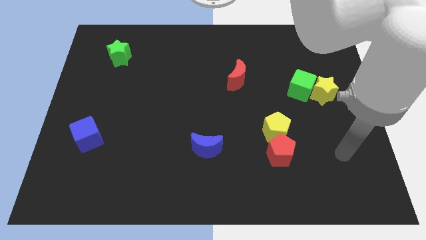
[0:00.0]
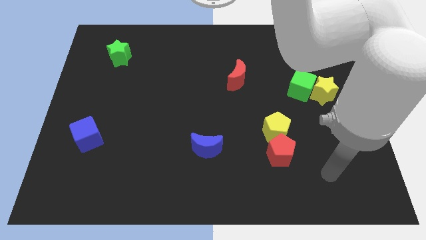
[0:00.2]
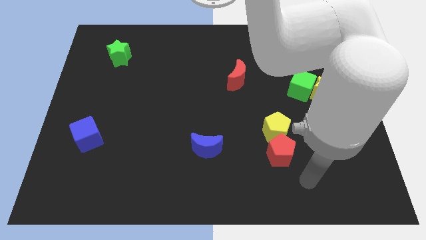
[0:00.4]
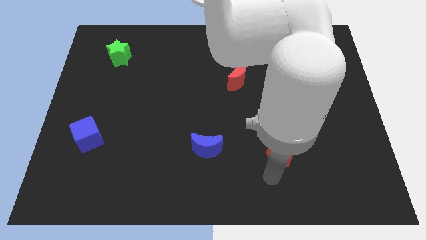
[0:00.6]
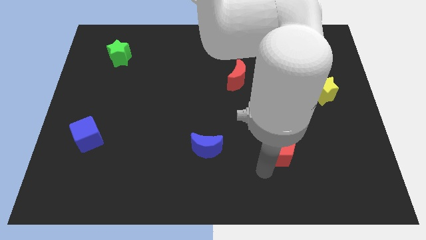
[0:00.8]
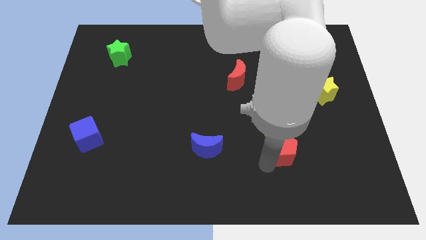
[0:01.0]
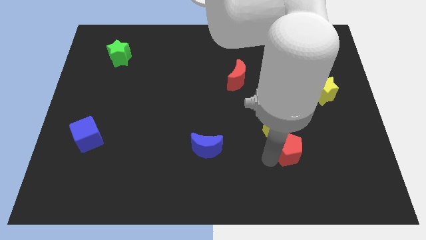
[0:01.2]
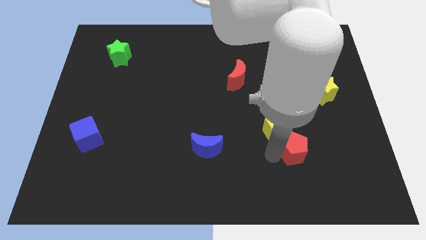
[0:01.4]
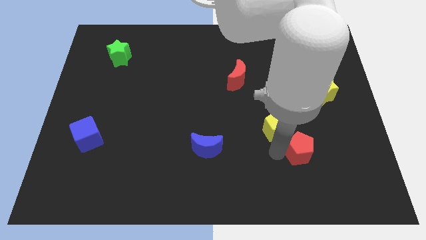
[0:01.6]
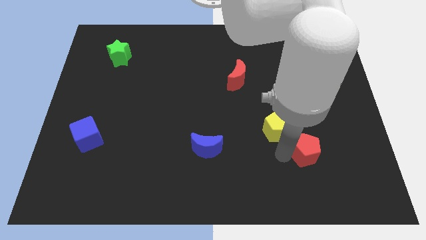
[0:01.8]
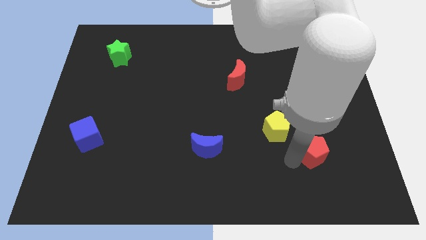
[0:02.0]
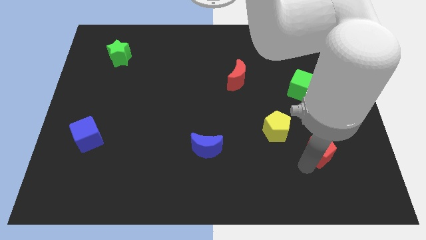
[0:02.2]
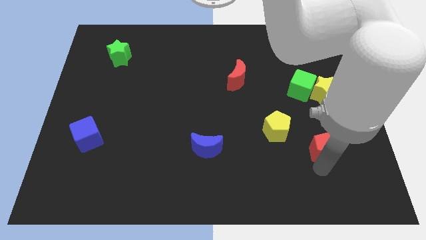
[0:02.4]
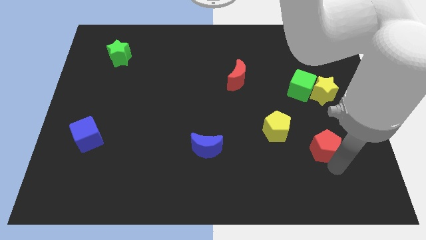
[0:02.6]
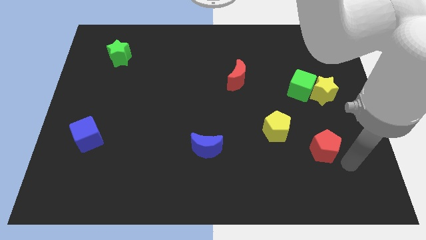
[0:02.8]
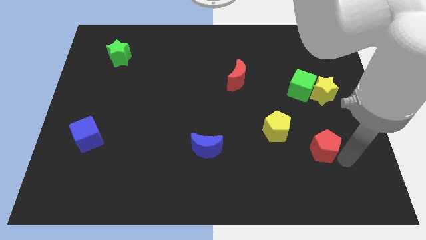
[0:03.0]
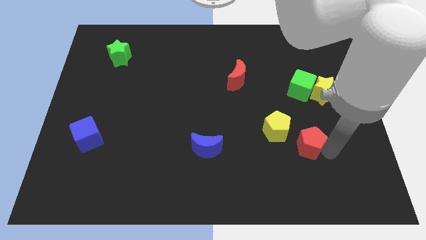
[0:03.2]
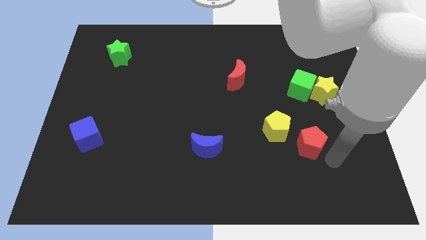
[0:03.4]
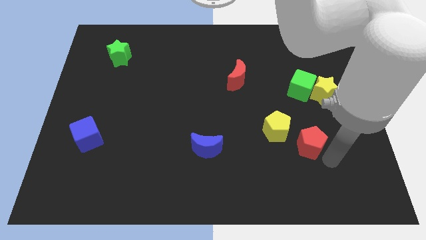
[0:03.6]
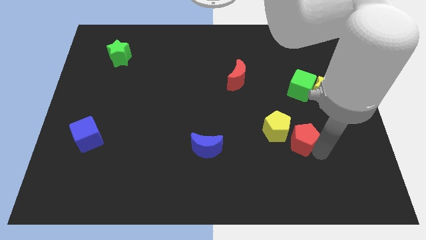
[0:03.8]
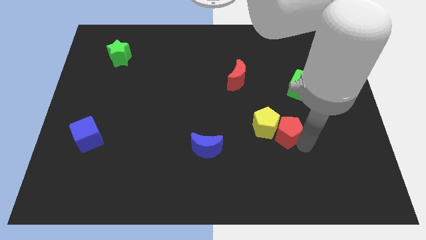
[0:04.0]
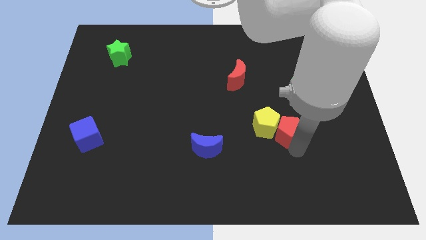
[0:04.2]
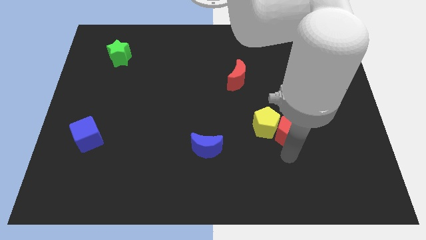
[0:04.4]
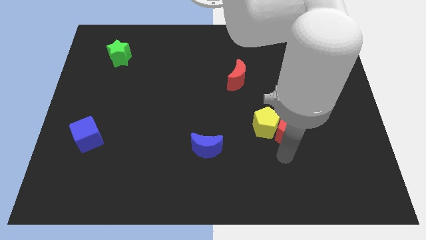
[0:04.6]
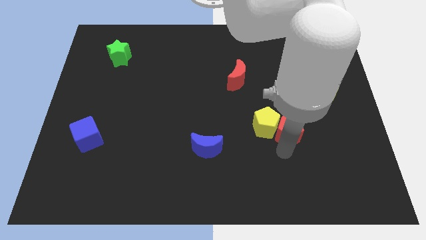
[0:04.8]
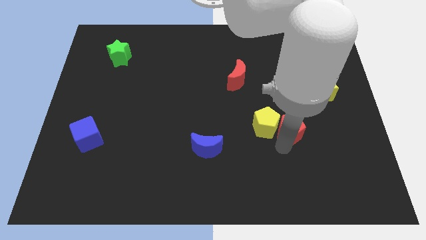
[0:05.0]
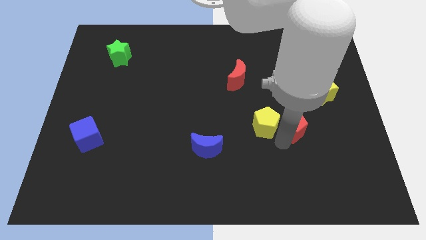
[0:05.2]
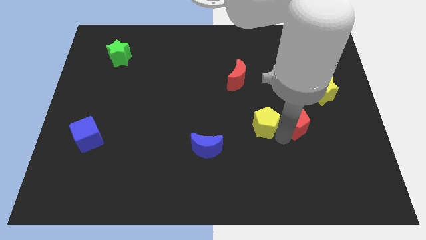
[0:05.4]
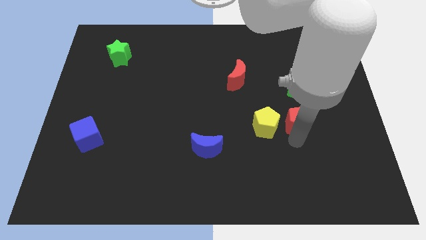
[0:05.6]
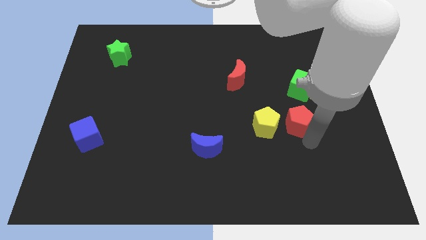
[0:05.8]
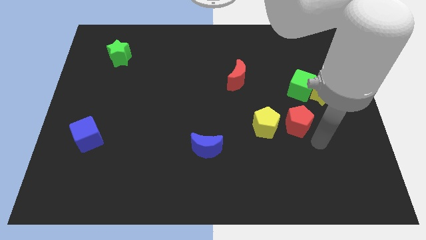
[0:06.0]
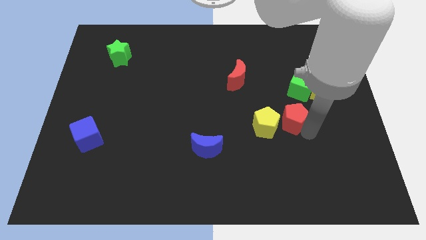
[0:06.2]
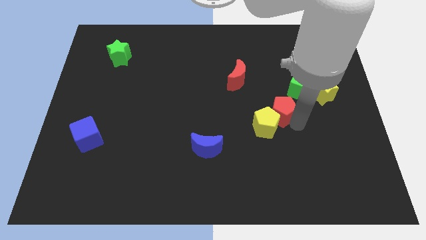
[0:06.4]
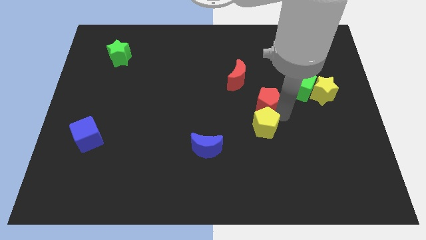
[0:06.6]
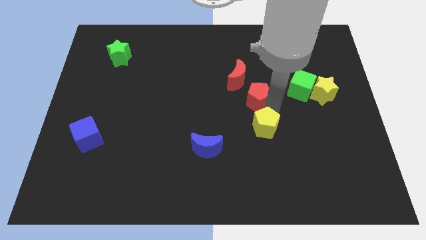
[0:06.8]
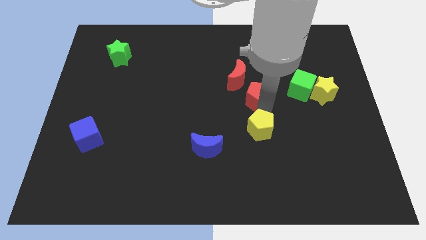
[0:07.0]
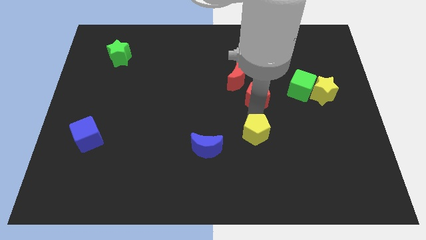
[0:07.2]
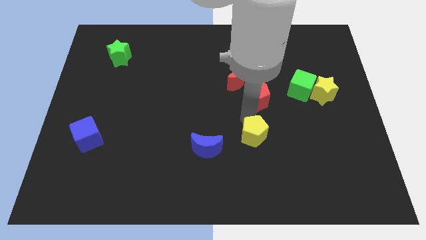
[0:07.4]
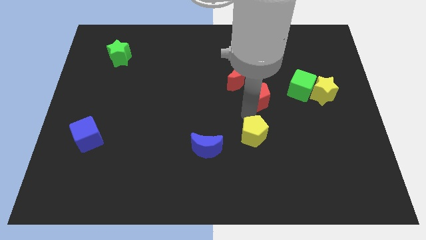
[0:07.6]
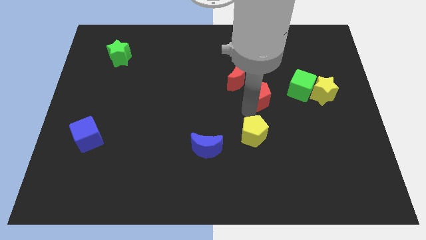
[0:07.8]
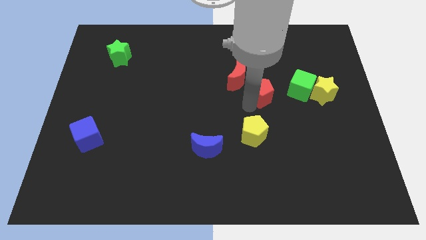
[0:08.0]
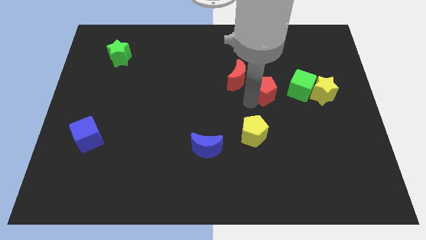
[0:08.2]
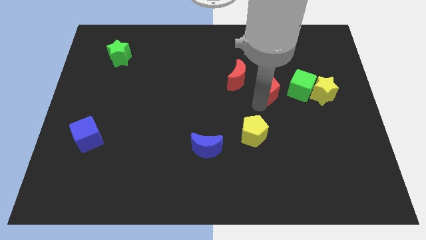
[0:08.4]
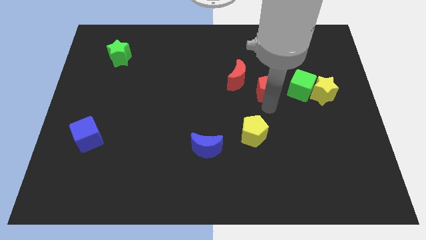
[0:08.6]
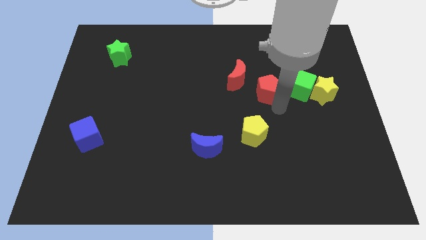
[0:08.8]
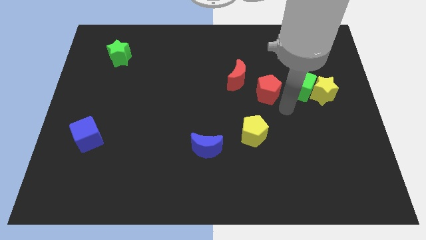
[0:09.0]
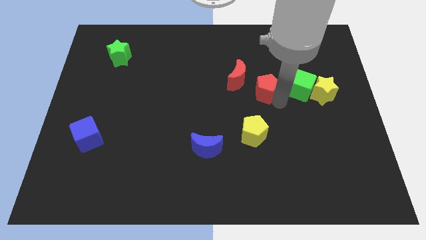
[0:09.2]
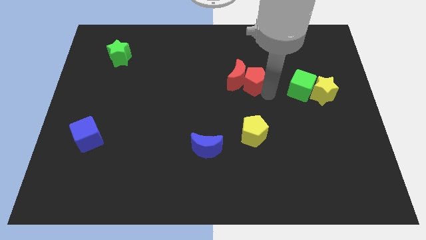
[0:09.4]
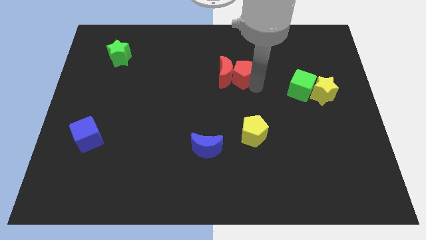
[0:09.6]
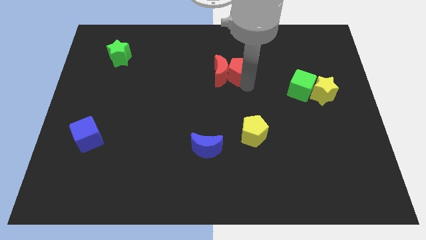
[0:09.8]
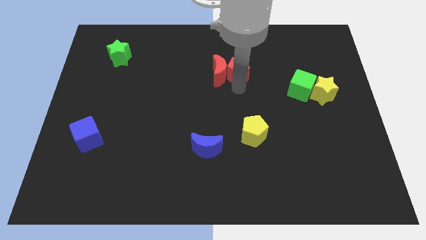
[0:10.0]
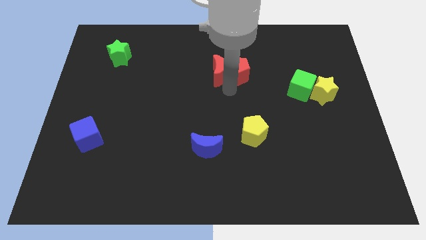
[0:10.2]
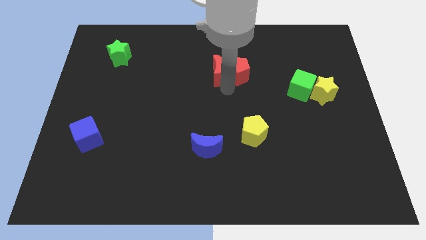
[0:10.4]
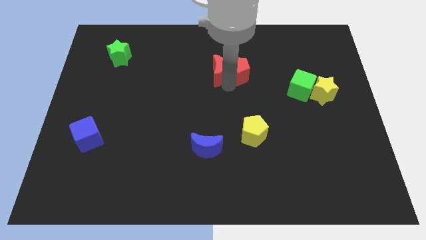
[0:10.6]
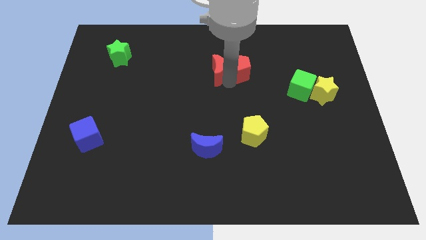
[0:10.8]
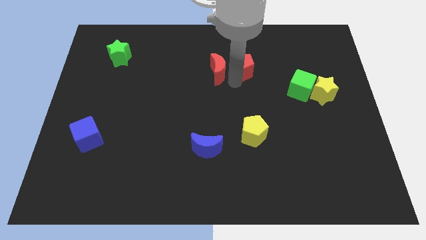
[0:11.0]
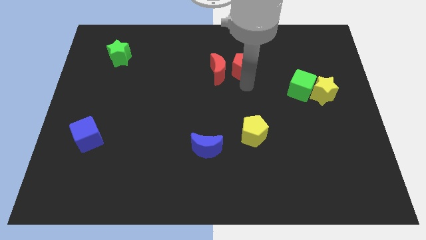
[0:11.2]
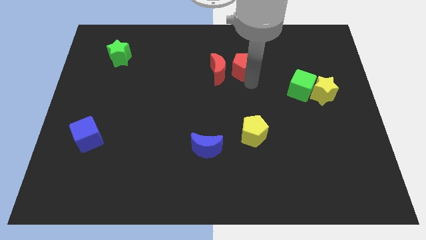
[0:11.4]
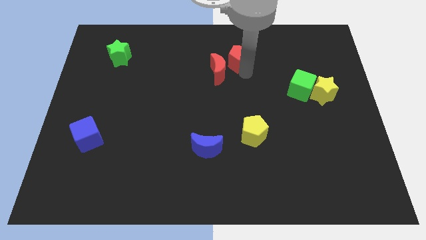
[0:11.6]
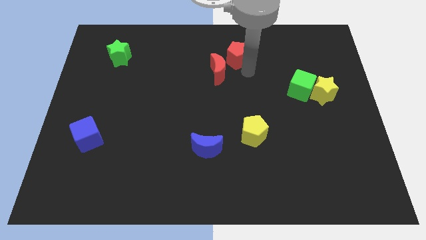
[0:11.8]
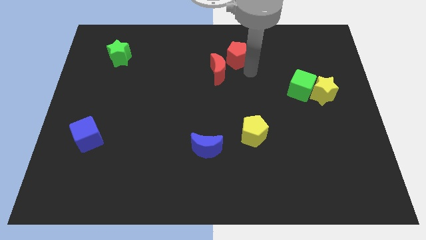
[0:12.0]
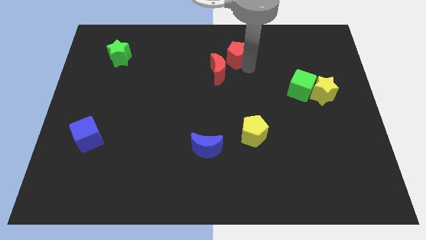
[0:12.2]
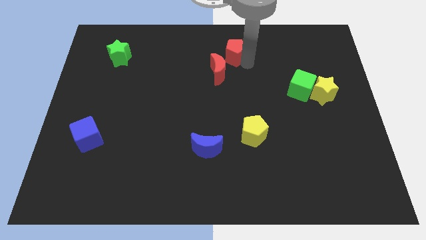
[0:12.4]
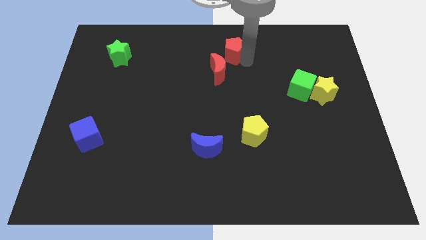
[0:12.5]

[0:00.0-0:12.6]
slide the red pentagon to the top side

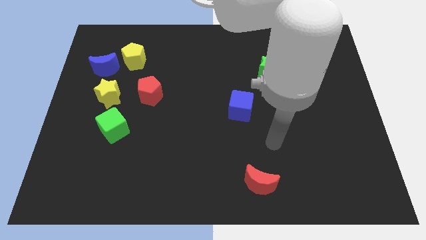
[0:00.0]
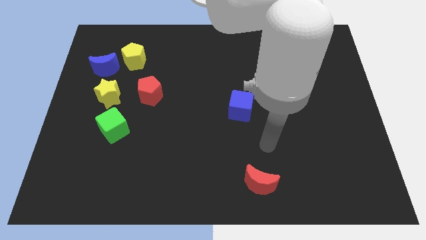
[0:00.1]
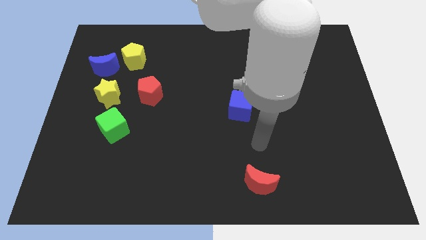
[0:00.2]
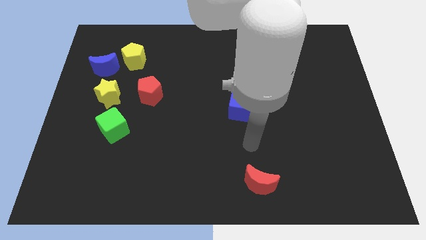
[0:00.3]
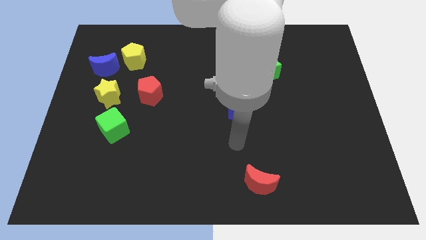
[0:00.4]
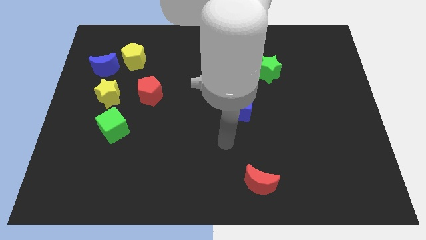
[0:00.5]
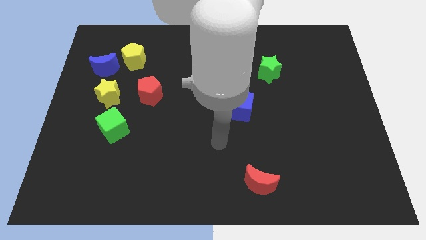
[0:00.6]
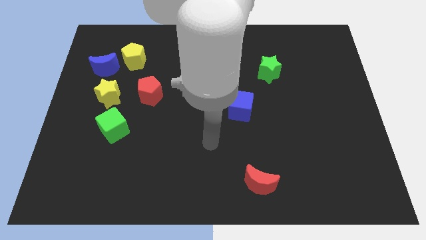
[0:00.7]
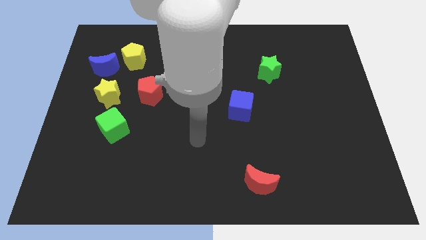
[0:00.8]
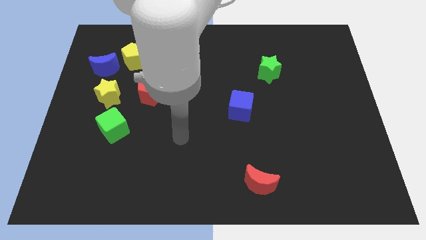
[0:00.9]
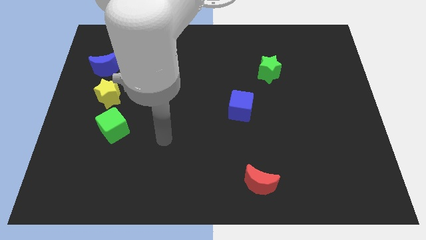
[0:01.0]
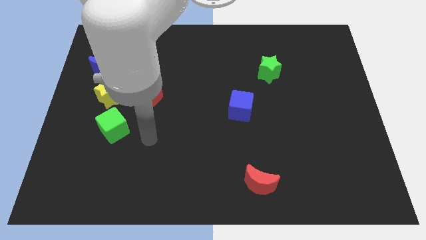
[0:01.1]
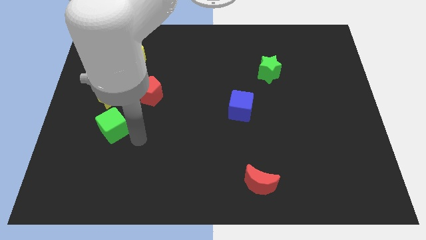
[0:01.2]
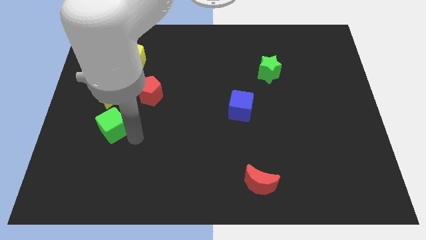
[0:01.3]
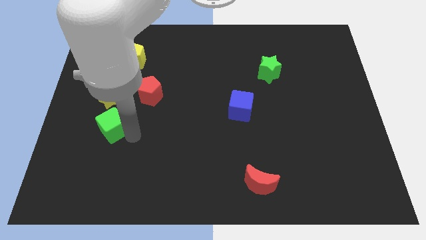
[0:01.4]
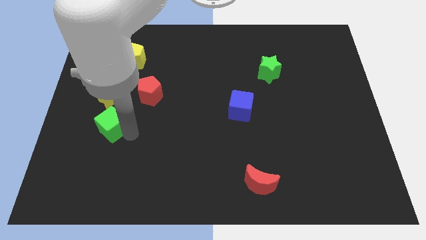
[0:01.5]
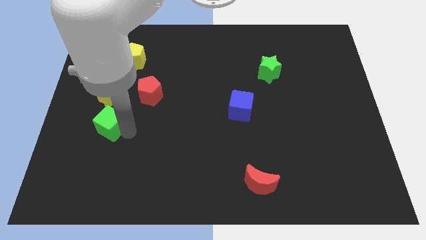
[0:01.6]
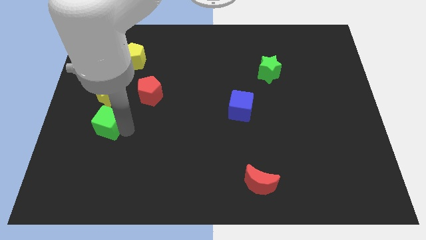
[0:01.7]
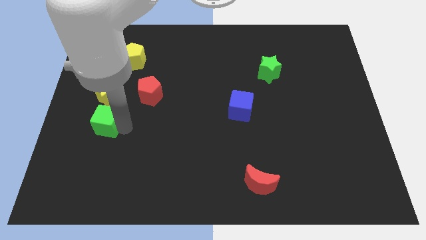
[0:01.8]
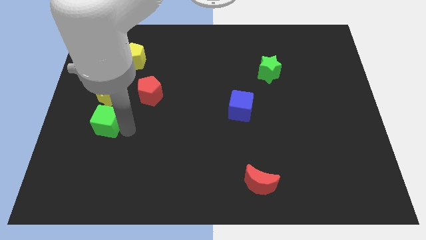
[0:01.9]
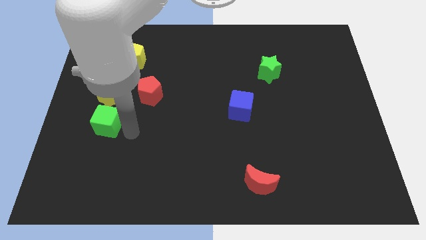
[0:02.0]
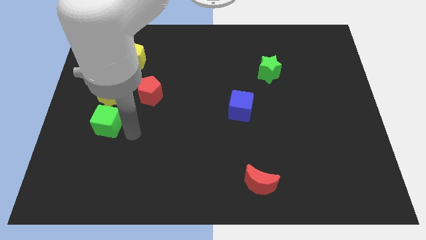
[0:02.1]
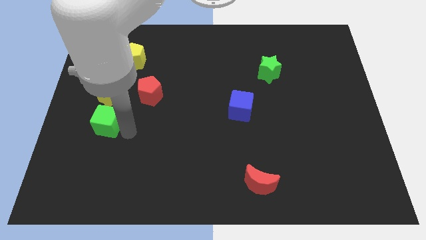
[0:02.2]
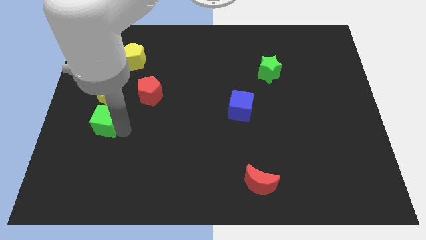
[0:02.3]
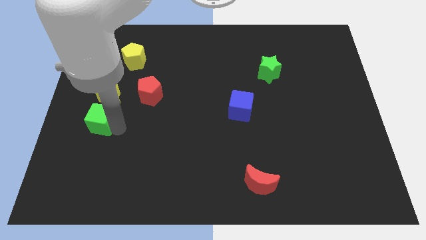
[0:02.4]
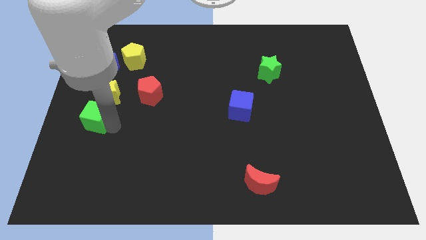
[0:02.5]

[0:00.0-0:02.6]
slide the green cube to the left side
